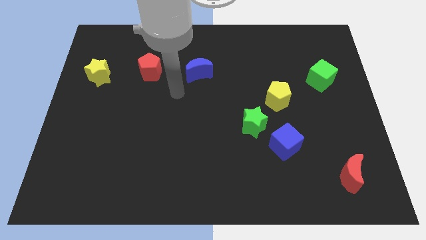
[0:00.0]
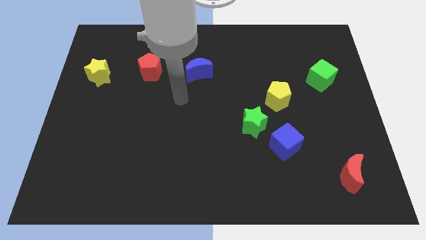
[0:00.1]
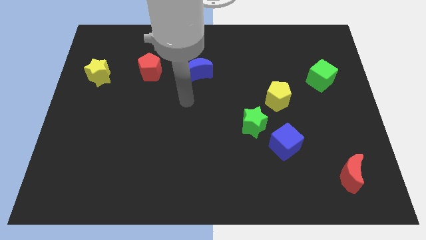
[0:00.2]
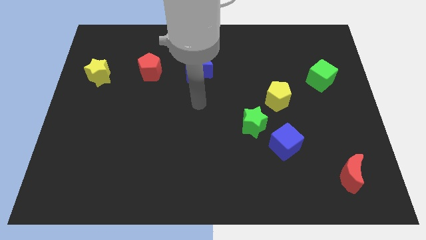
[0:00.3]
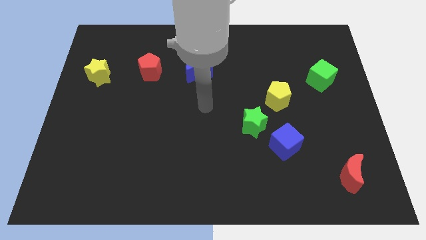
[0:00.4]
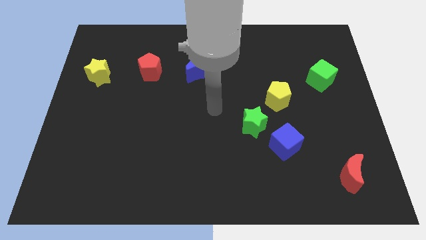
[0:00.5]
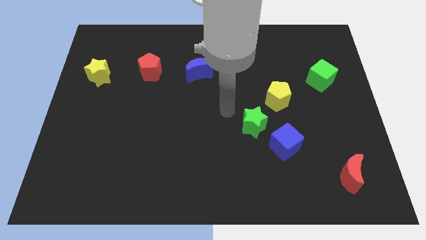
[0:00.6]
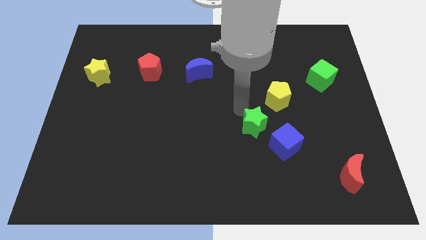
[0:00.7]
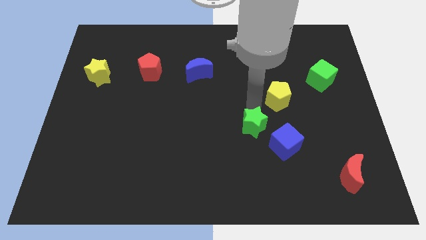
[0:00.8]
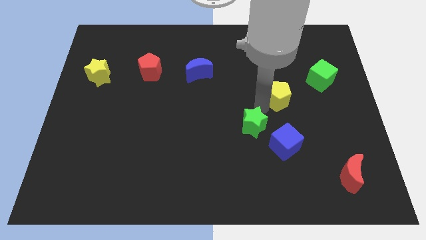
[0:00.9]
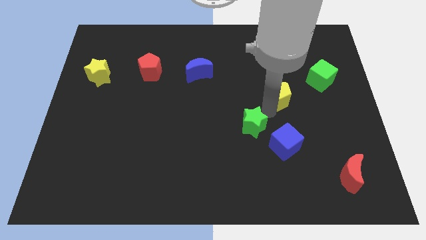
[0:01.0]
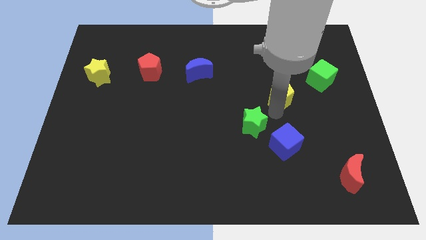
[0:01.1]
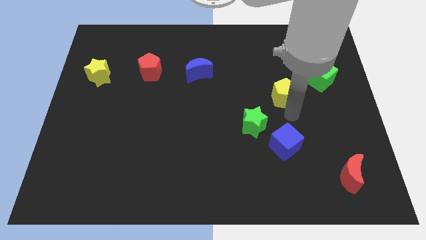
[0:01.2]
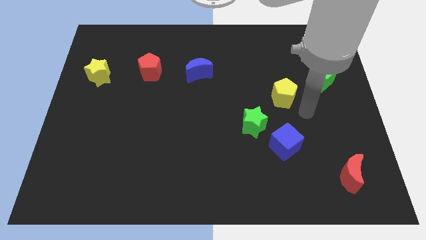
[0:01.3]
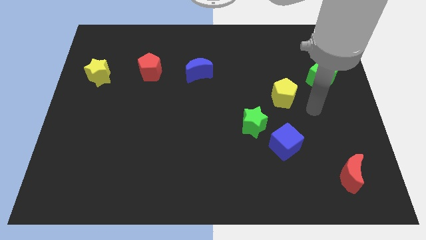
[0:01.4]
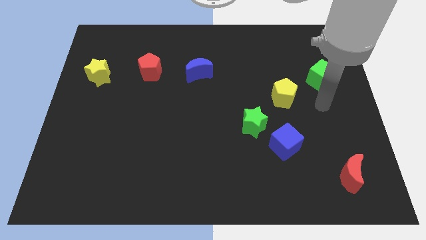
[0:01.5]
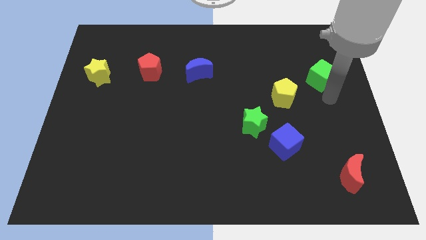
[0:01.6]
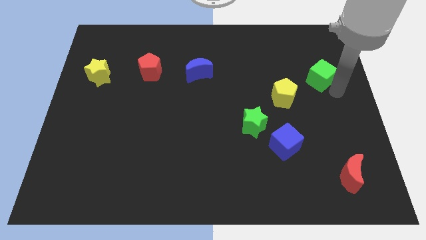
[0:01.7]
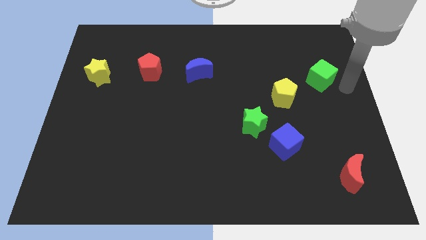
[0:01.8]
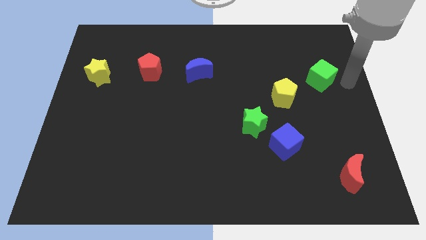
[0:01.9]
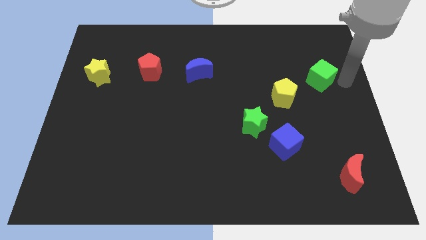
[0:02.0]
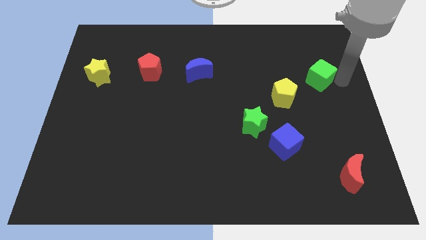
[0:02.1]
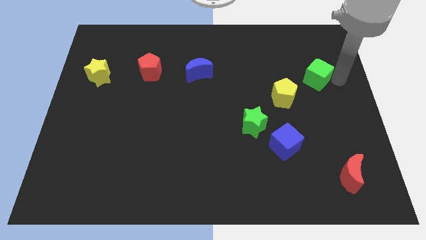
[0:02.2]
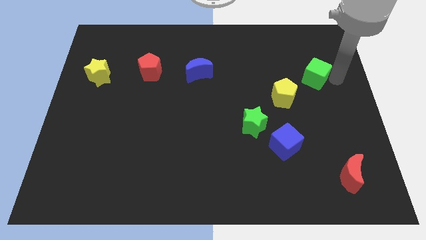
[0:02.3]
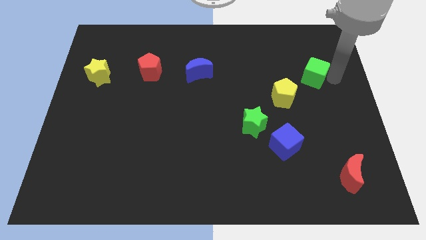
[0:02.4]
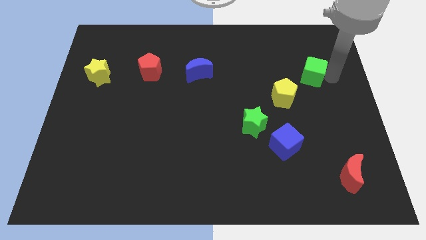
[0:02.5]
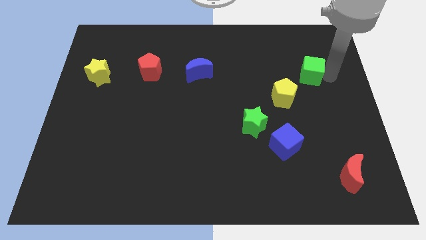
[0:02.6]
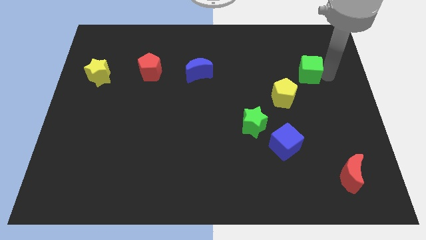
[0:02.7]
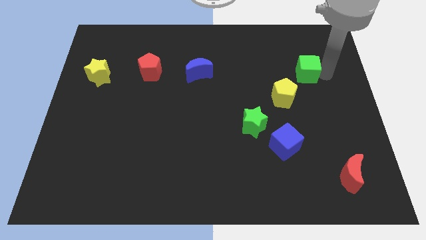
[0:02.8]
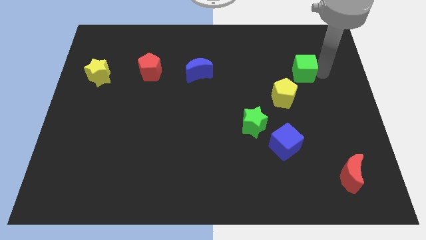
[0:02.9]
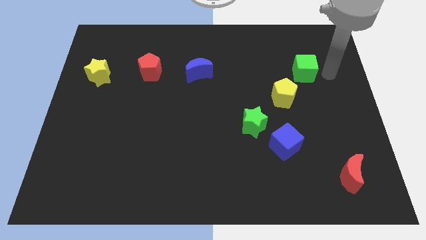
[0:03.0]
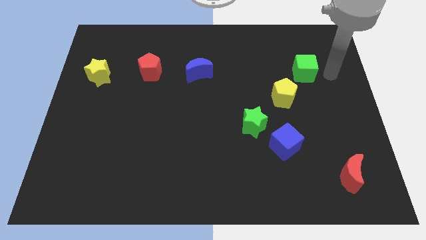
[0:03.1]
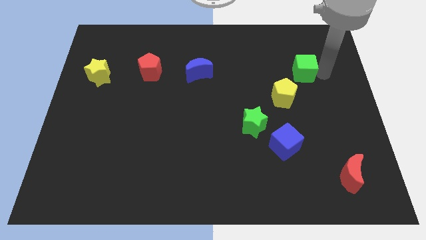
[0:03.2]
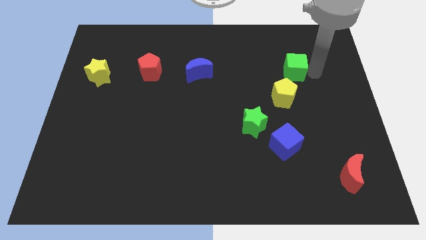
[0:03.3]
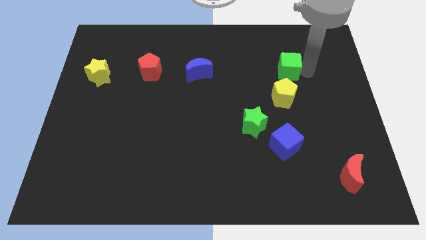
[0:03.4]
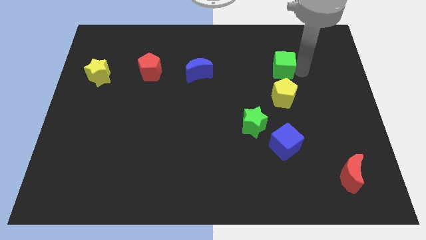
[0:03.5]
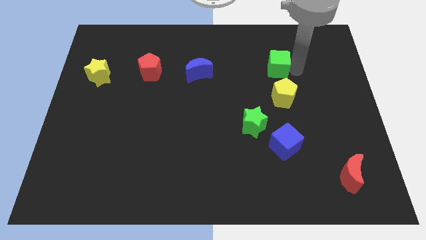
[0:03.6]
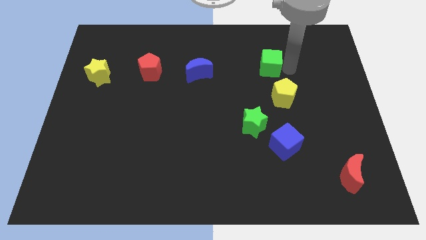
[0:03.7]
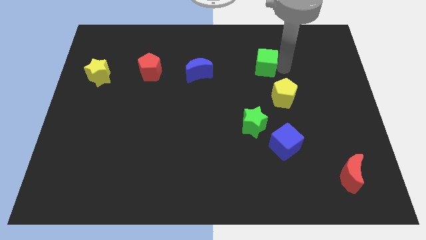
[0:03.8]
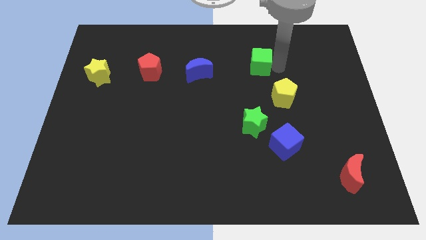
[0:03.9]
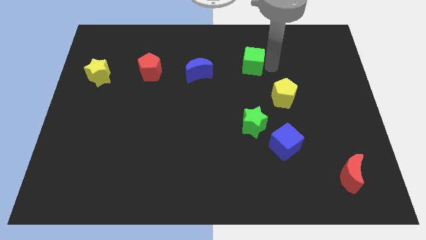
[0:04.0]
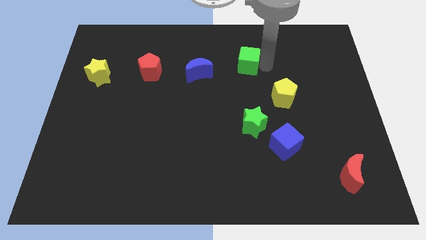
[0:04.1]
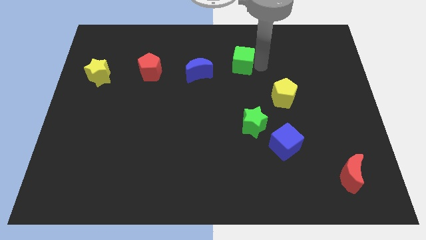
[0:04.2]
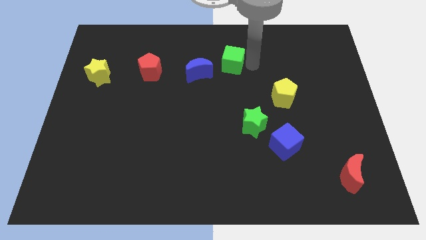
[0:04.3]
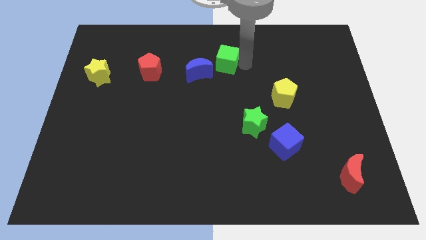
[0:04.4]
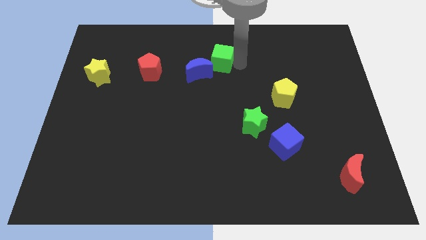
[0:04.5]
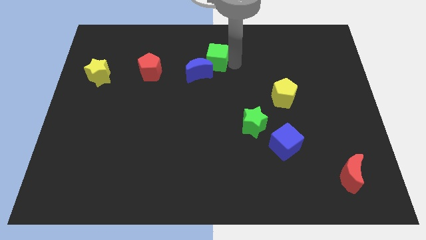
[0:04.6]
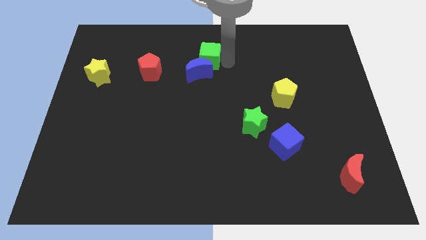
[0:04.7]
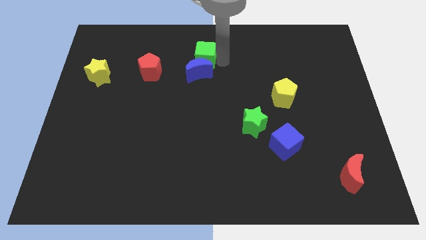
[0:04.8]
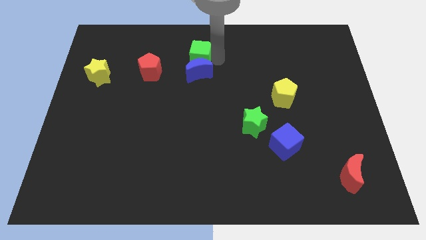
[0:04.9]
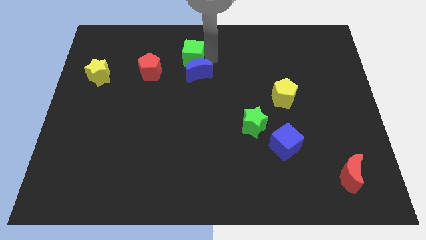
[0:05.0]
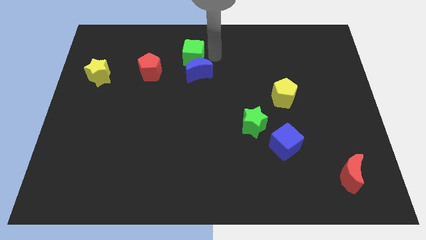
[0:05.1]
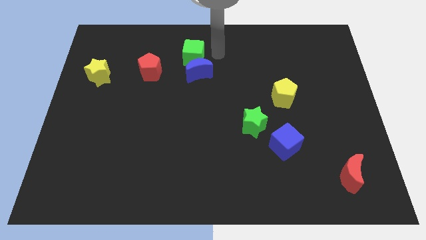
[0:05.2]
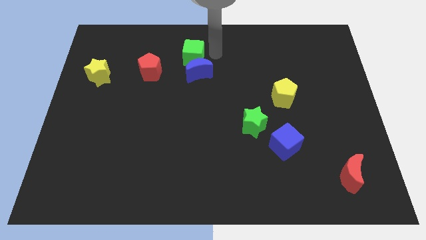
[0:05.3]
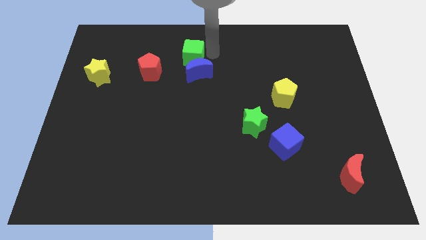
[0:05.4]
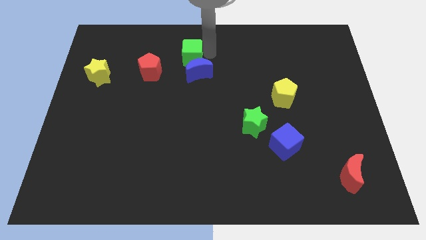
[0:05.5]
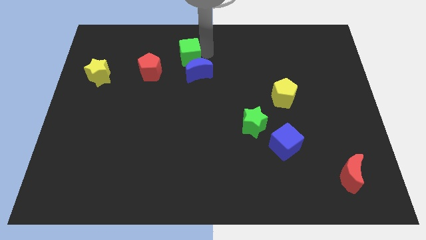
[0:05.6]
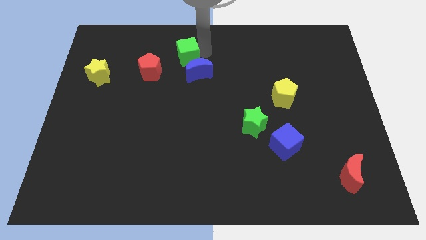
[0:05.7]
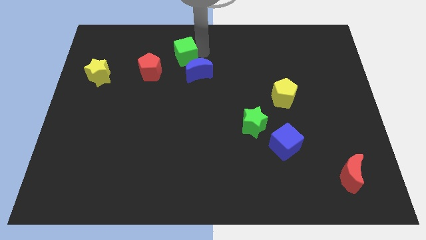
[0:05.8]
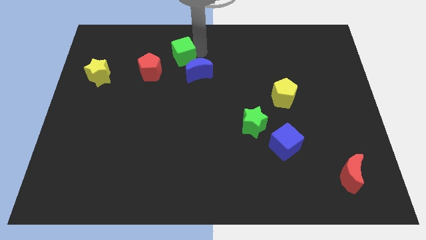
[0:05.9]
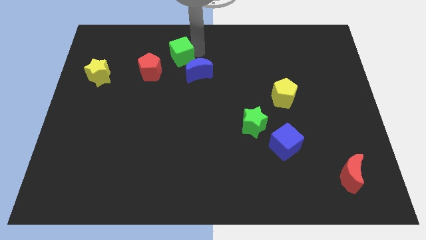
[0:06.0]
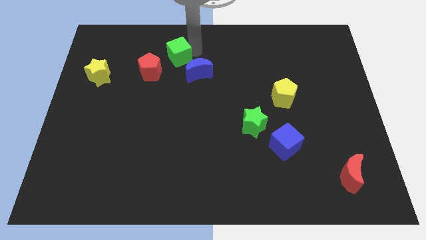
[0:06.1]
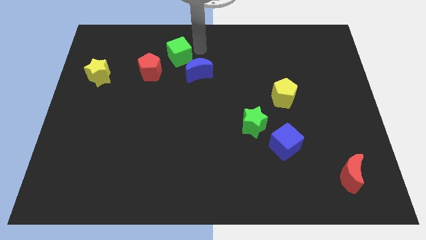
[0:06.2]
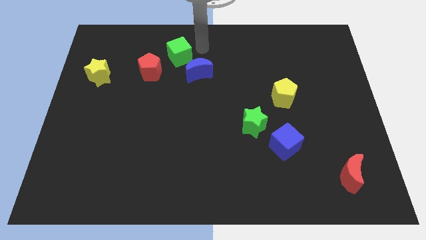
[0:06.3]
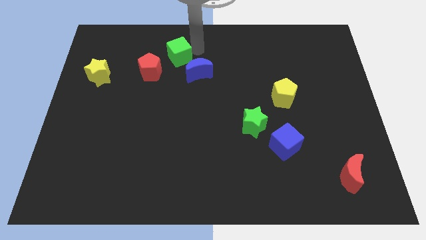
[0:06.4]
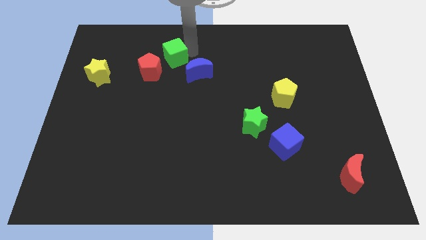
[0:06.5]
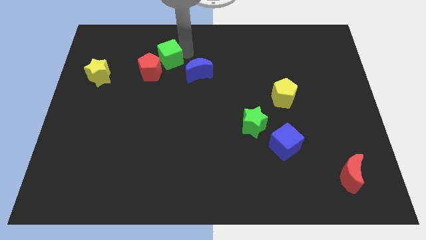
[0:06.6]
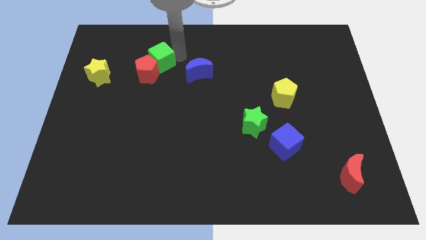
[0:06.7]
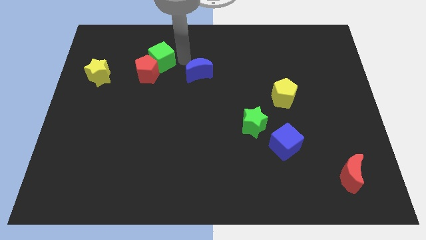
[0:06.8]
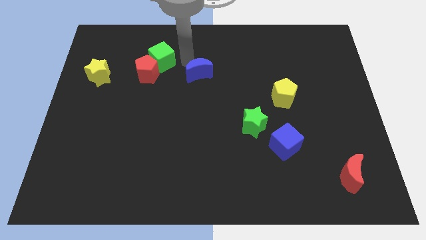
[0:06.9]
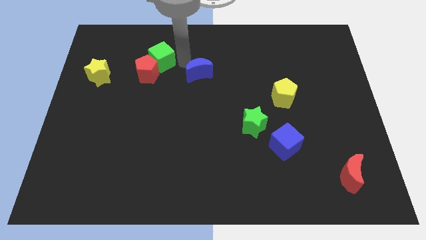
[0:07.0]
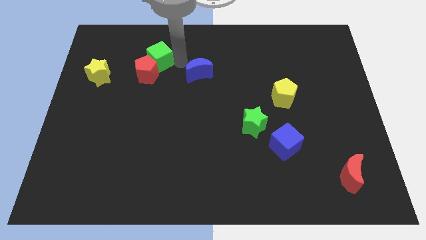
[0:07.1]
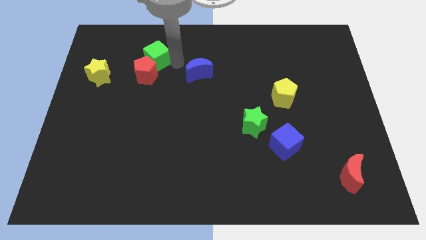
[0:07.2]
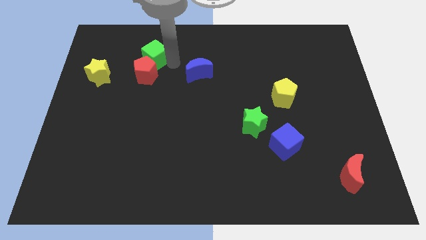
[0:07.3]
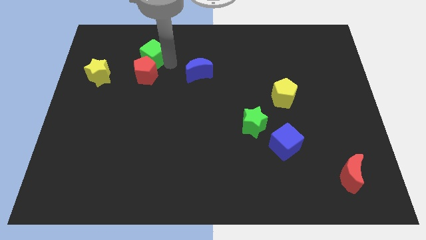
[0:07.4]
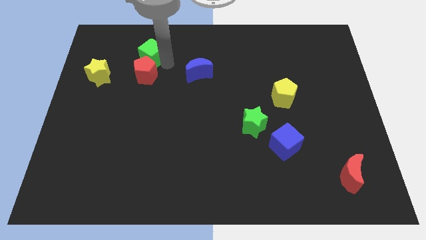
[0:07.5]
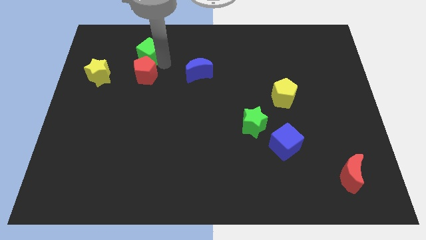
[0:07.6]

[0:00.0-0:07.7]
move the green cube to the top left of the red pentagon
